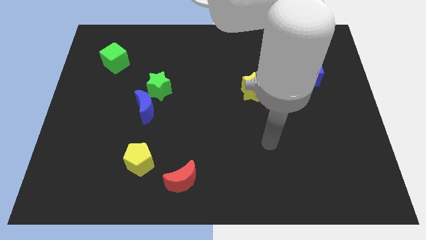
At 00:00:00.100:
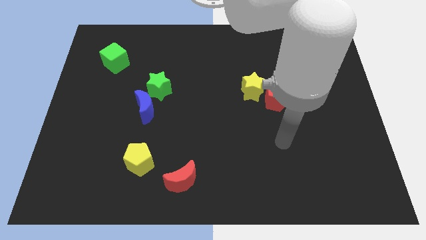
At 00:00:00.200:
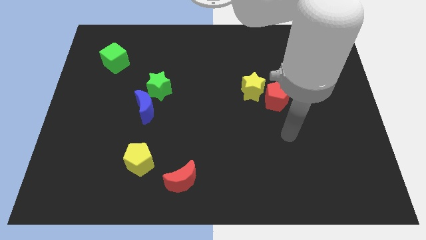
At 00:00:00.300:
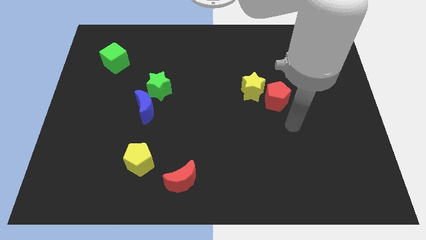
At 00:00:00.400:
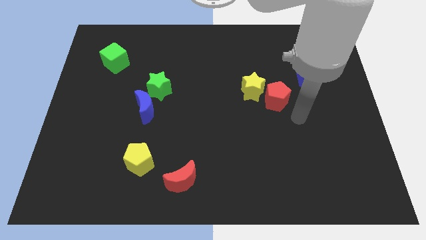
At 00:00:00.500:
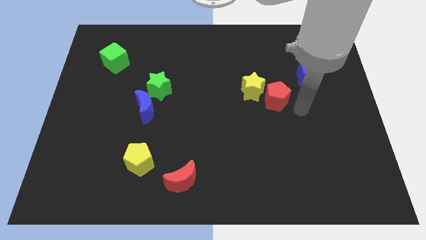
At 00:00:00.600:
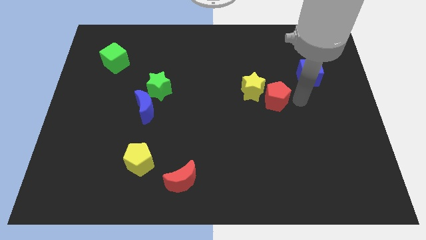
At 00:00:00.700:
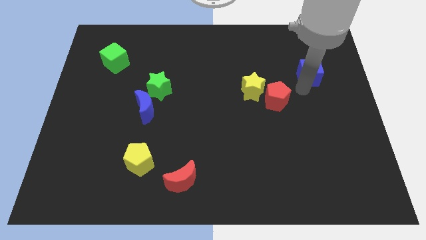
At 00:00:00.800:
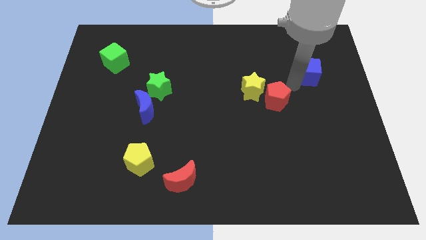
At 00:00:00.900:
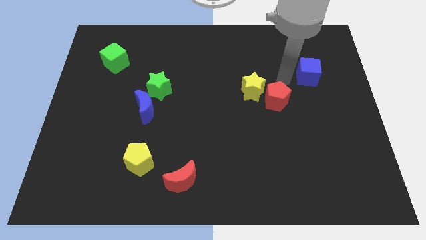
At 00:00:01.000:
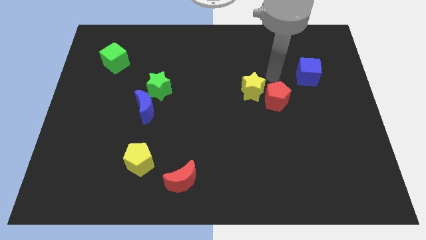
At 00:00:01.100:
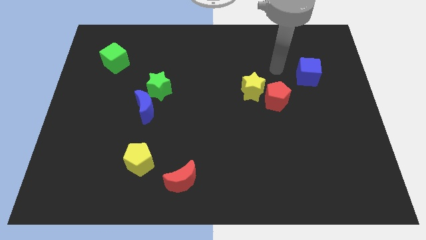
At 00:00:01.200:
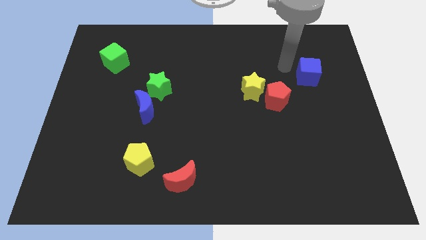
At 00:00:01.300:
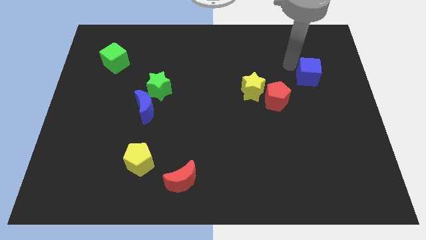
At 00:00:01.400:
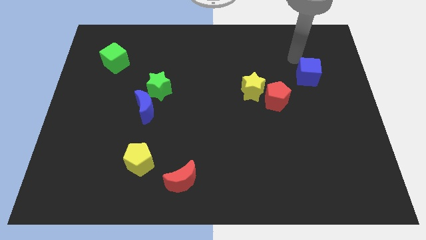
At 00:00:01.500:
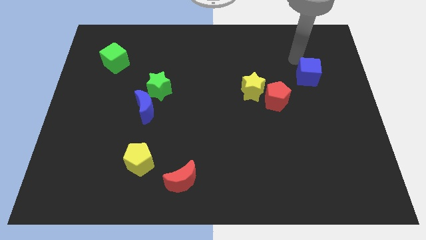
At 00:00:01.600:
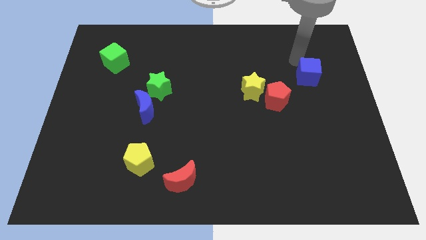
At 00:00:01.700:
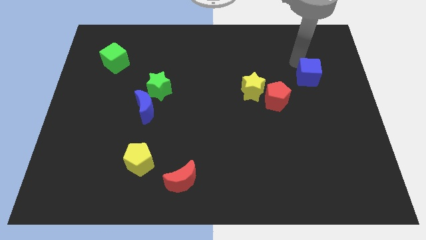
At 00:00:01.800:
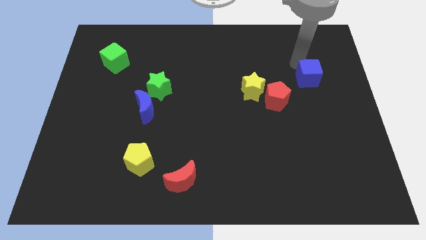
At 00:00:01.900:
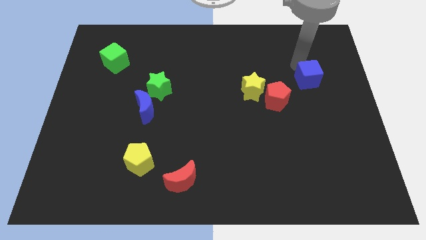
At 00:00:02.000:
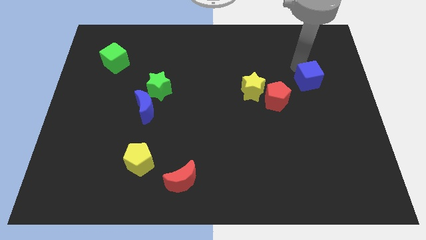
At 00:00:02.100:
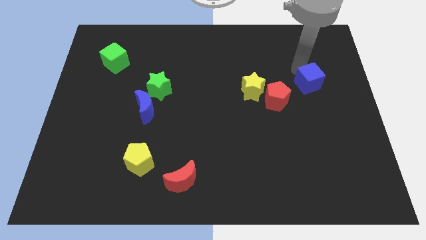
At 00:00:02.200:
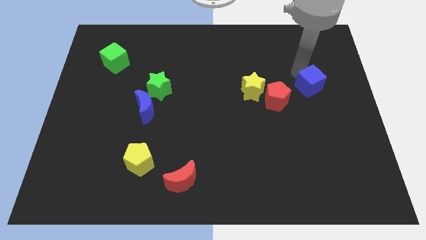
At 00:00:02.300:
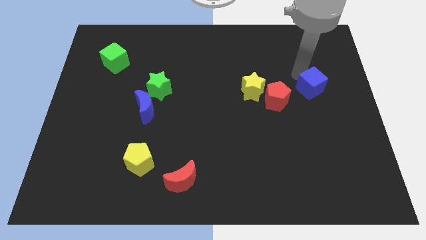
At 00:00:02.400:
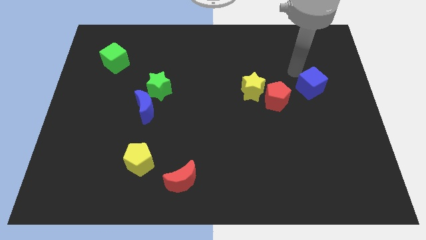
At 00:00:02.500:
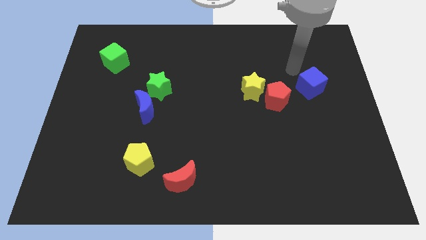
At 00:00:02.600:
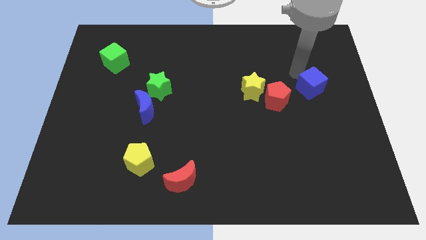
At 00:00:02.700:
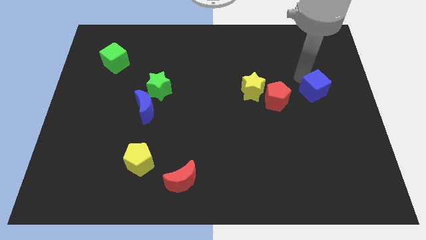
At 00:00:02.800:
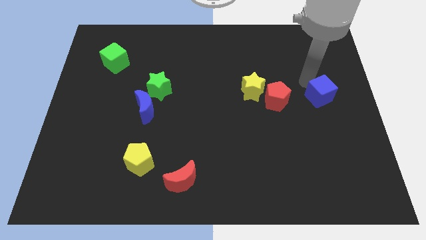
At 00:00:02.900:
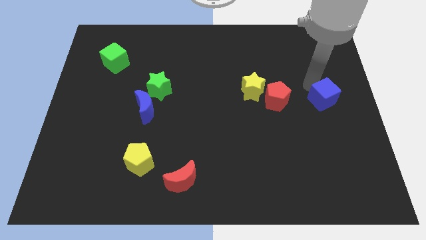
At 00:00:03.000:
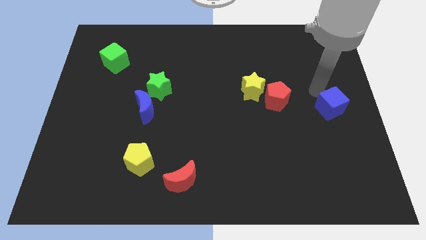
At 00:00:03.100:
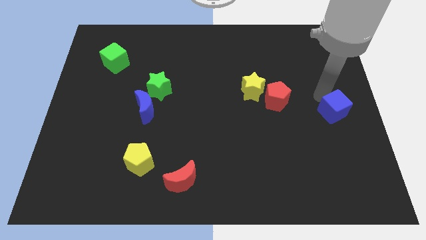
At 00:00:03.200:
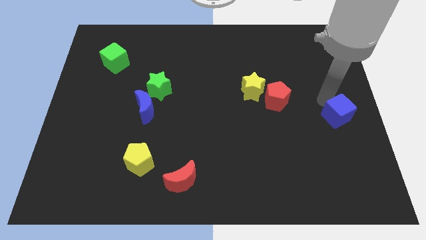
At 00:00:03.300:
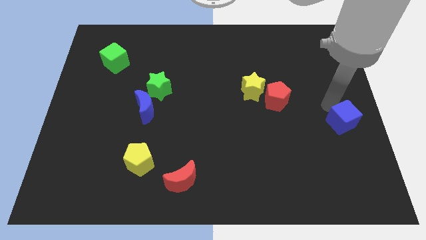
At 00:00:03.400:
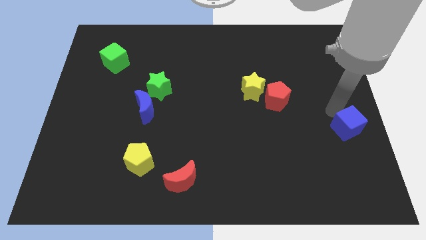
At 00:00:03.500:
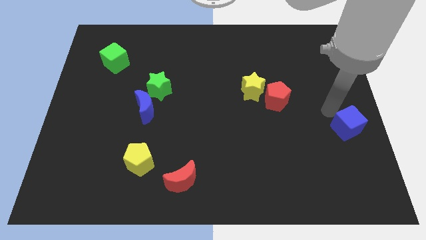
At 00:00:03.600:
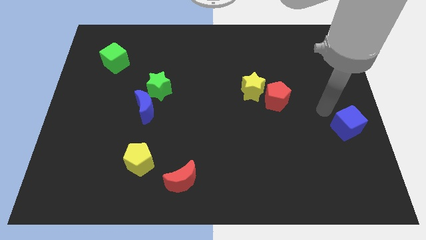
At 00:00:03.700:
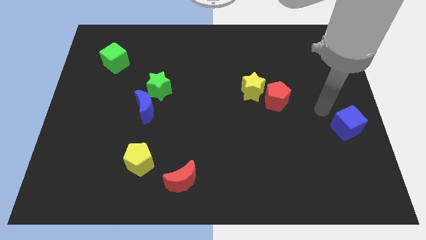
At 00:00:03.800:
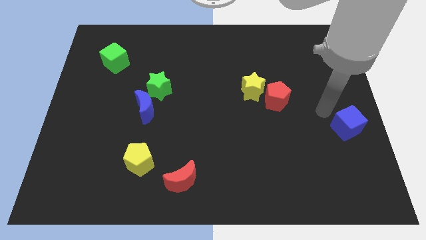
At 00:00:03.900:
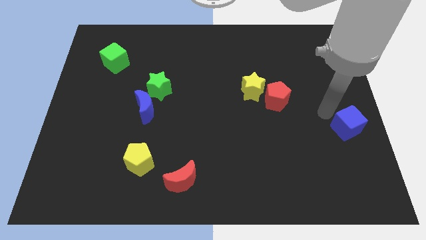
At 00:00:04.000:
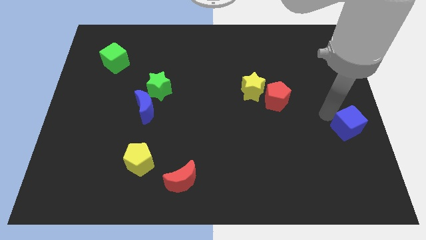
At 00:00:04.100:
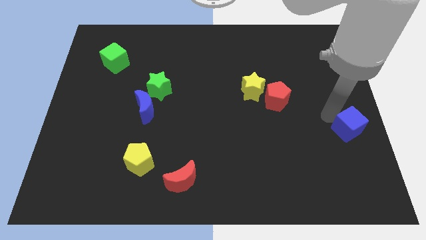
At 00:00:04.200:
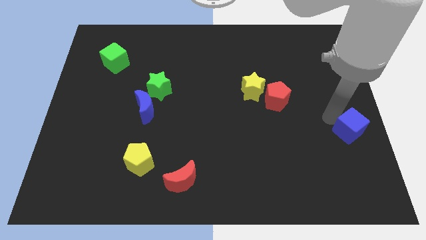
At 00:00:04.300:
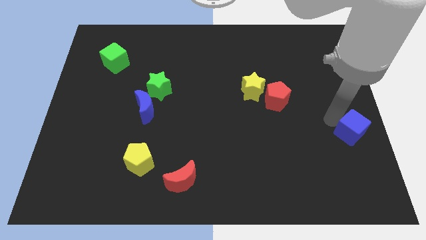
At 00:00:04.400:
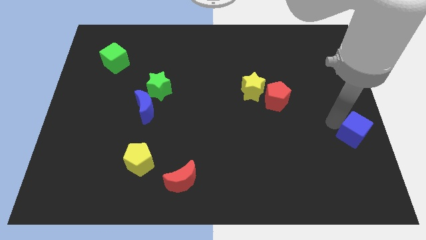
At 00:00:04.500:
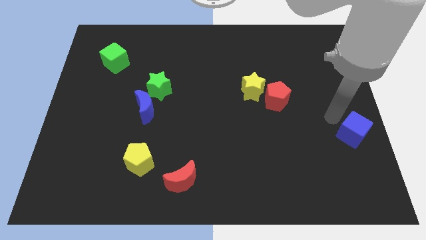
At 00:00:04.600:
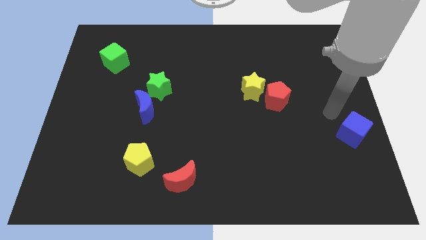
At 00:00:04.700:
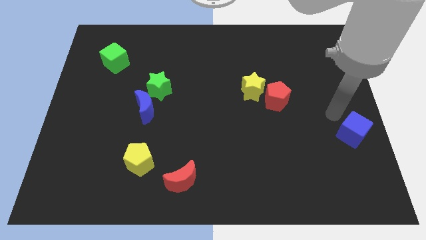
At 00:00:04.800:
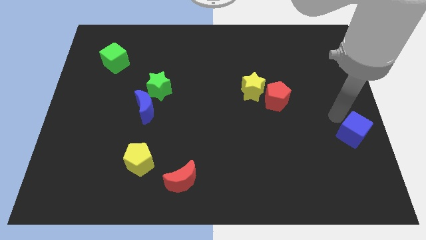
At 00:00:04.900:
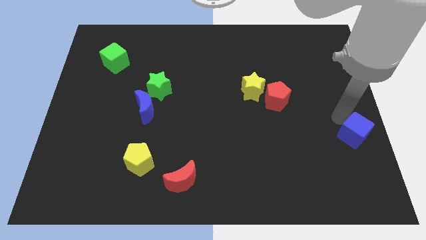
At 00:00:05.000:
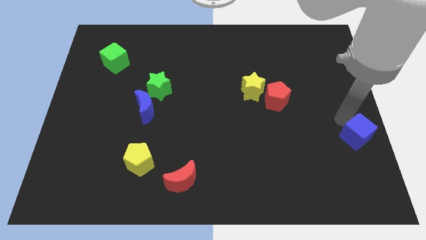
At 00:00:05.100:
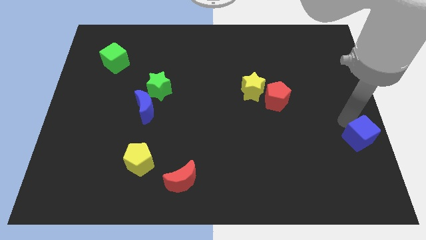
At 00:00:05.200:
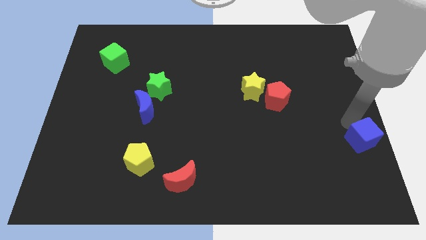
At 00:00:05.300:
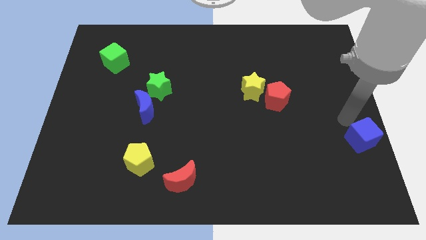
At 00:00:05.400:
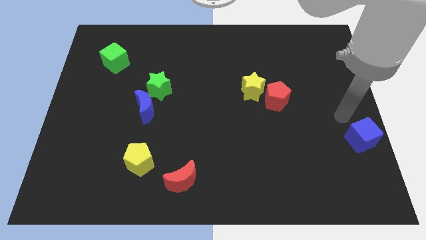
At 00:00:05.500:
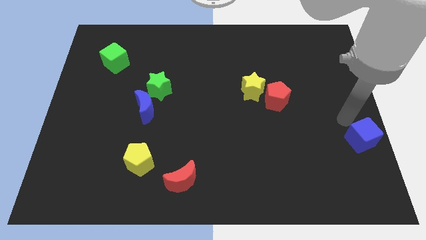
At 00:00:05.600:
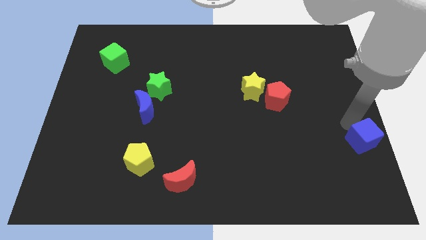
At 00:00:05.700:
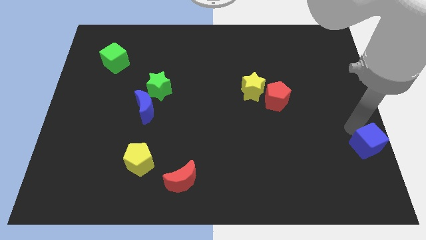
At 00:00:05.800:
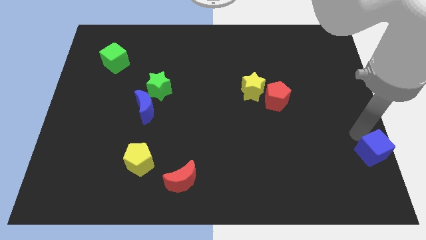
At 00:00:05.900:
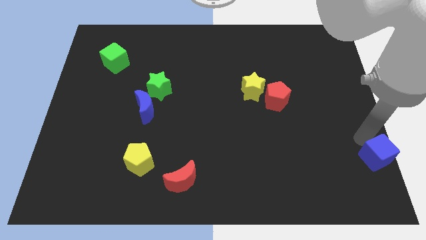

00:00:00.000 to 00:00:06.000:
push the blue cube to the lower right corner
